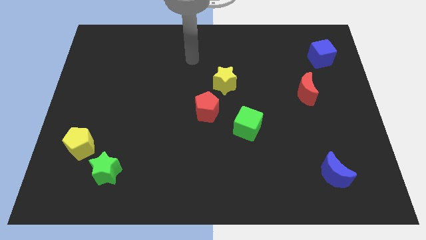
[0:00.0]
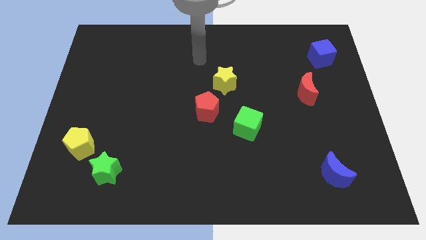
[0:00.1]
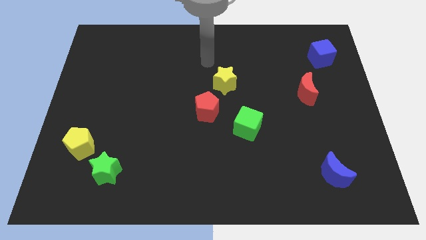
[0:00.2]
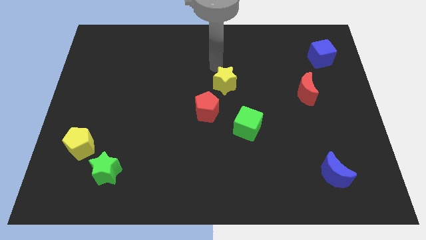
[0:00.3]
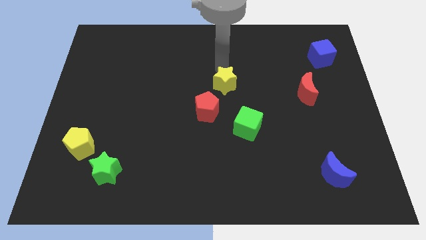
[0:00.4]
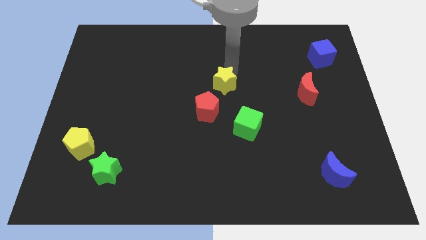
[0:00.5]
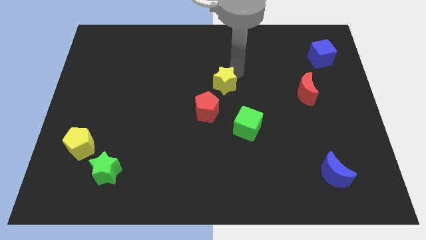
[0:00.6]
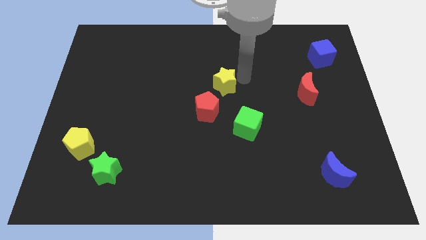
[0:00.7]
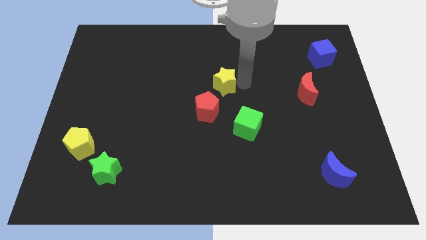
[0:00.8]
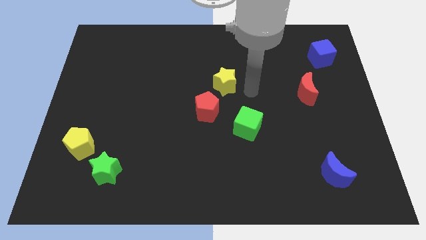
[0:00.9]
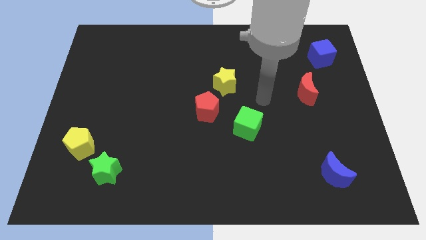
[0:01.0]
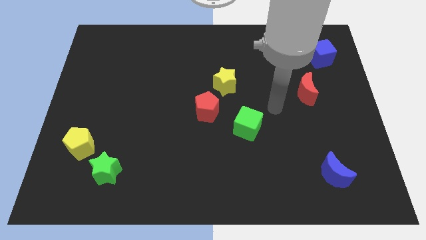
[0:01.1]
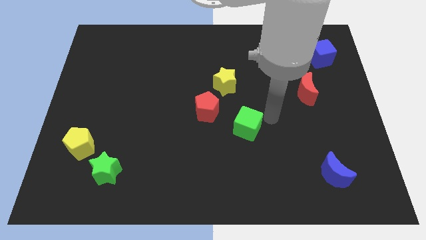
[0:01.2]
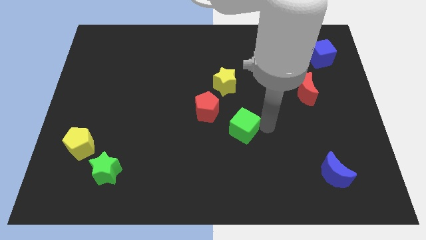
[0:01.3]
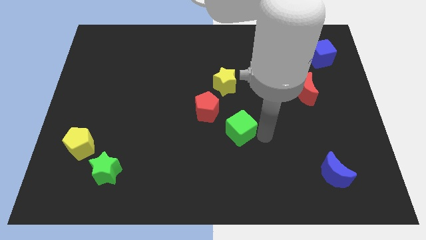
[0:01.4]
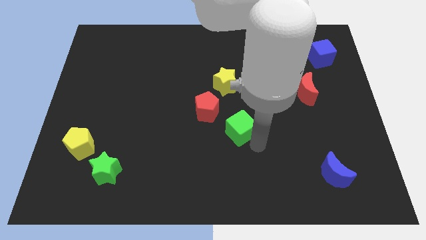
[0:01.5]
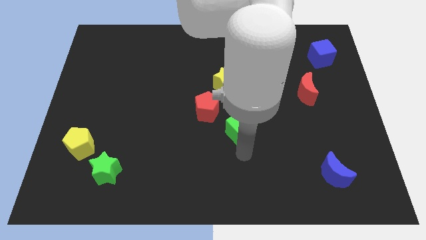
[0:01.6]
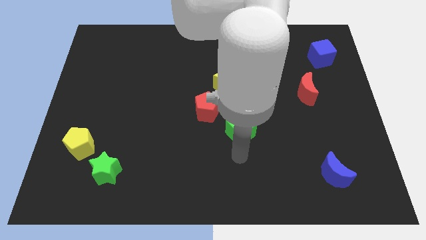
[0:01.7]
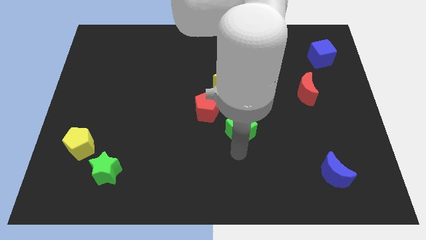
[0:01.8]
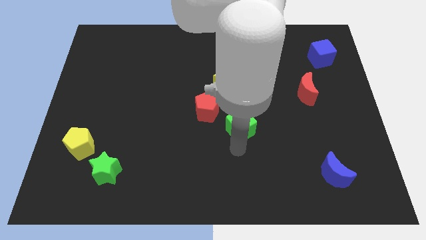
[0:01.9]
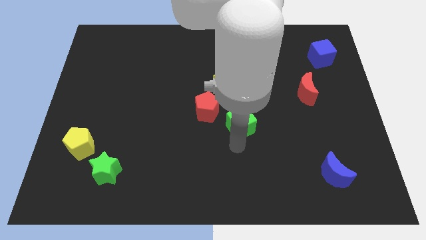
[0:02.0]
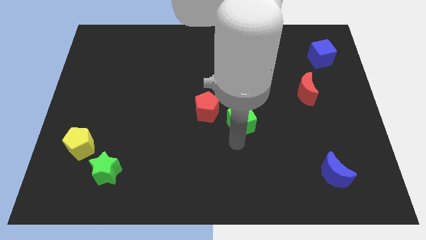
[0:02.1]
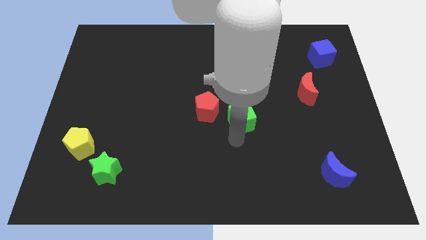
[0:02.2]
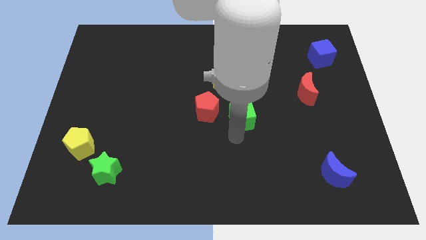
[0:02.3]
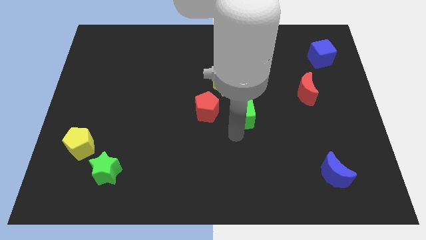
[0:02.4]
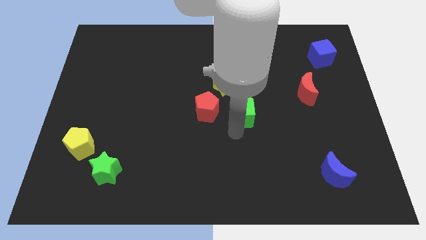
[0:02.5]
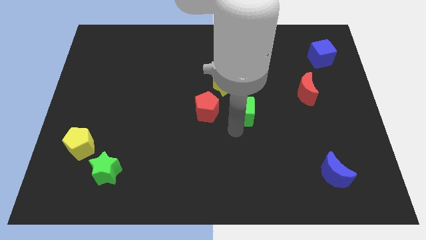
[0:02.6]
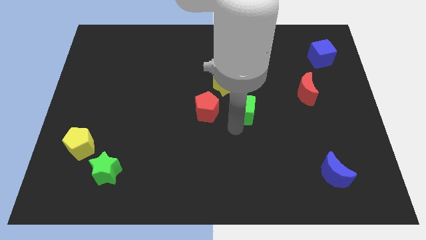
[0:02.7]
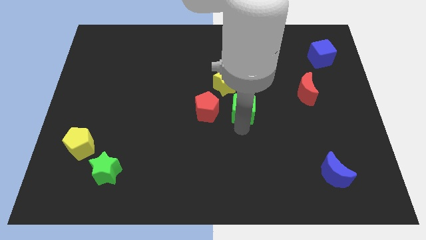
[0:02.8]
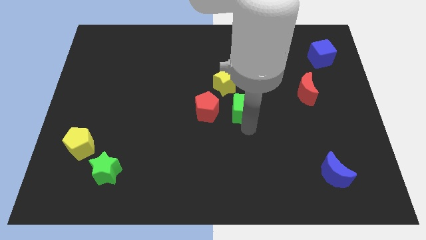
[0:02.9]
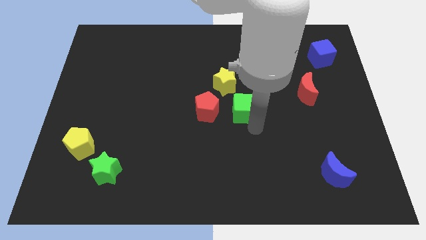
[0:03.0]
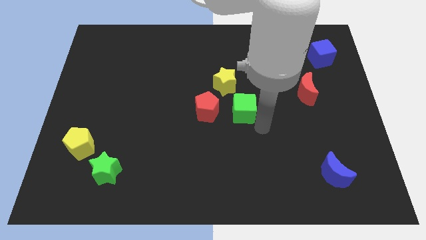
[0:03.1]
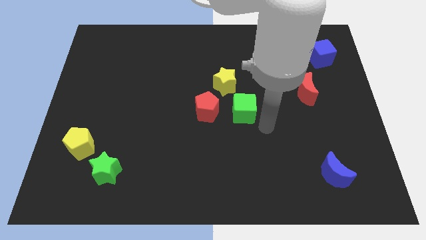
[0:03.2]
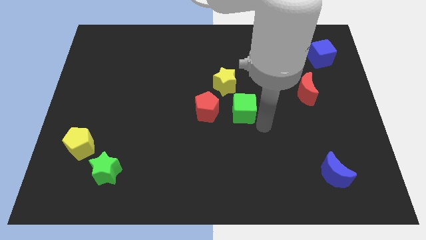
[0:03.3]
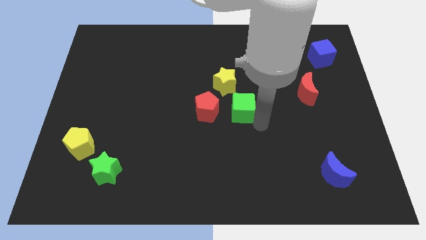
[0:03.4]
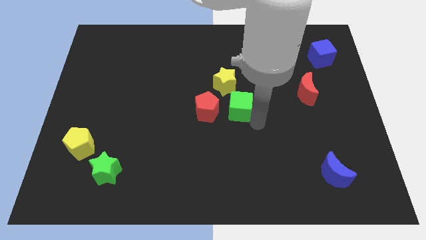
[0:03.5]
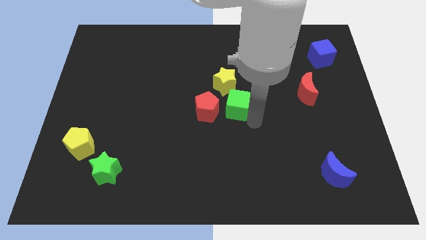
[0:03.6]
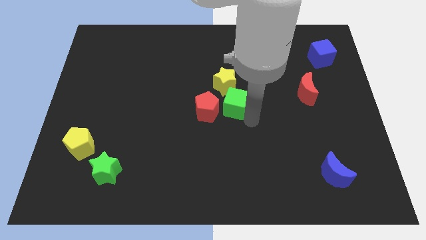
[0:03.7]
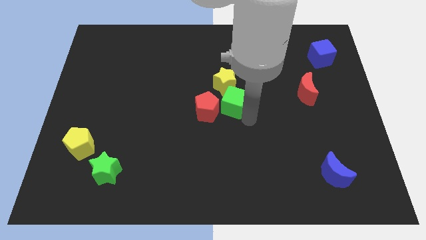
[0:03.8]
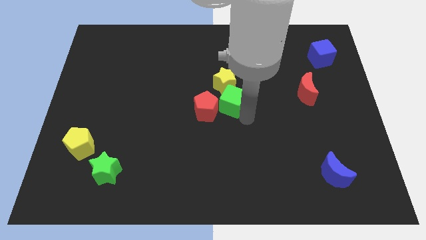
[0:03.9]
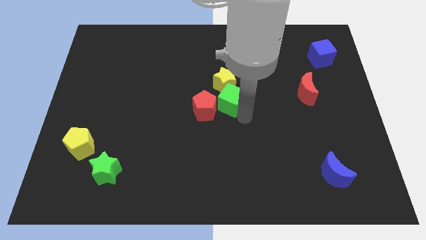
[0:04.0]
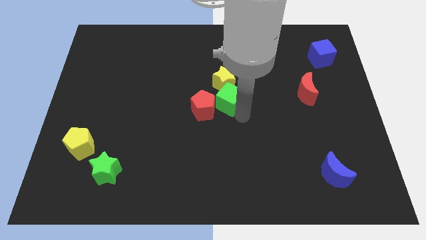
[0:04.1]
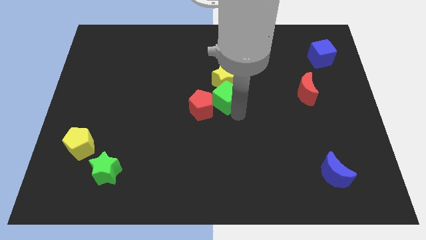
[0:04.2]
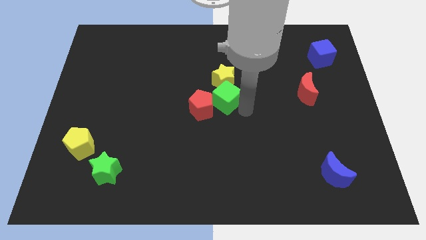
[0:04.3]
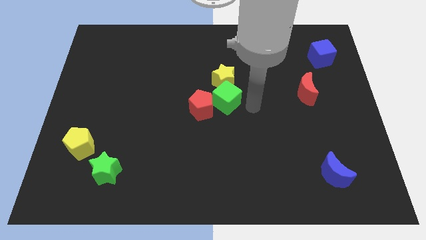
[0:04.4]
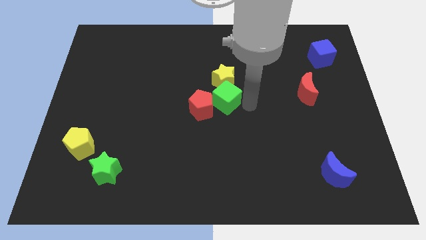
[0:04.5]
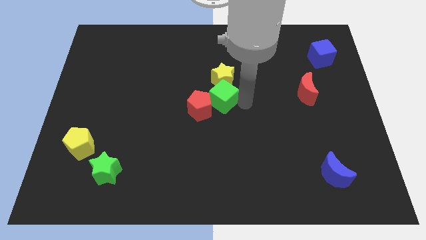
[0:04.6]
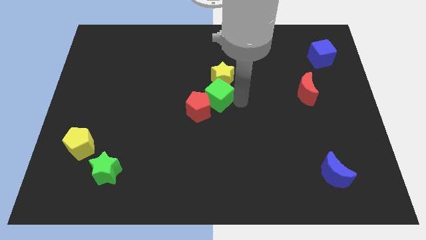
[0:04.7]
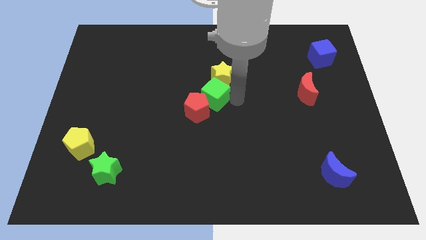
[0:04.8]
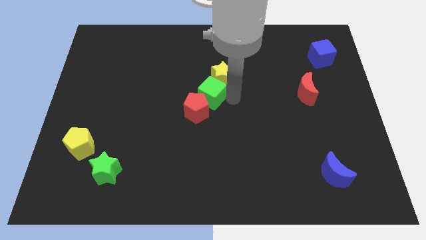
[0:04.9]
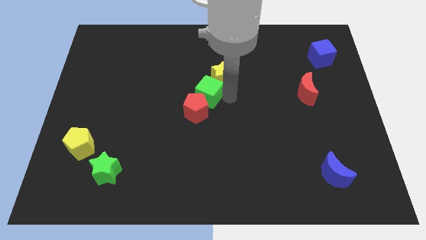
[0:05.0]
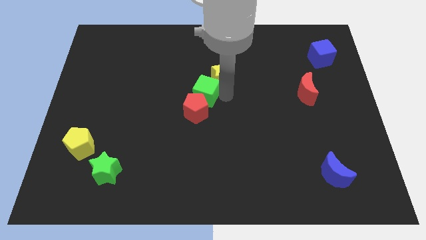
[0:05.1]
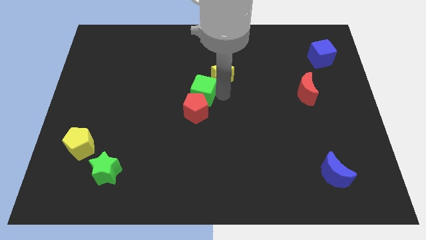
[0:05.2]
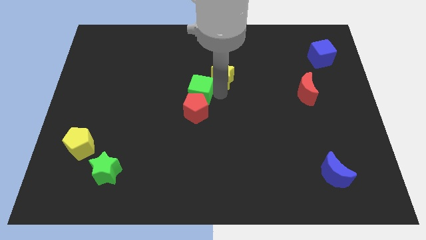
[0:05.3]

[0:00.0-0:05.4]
move the green cube to the top left side of the red pentagon

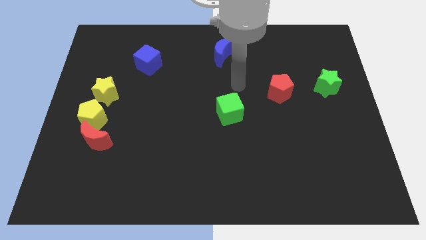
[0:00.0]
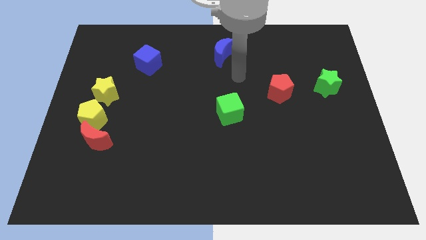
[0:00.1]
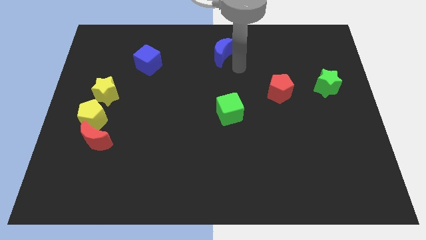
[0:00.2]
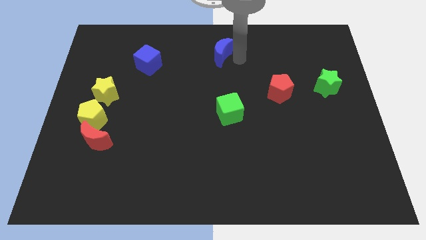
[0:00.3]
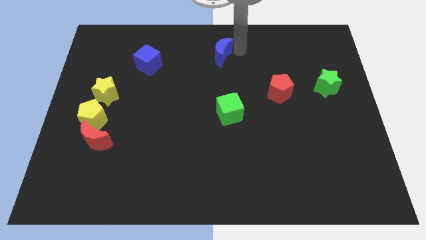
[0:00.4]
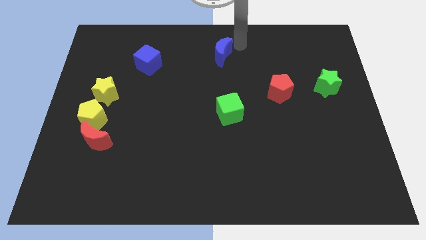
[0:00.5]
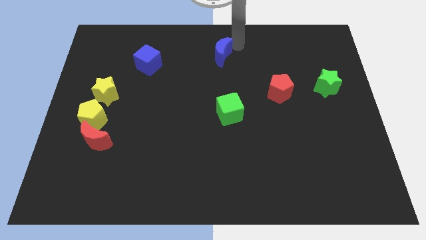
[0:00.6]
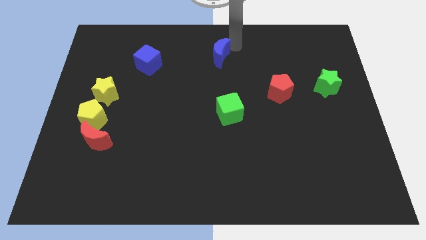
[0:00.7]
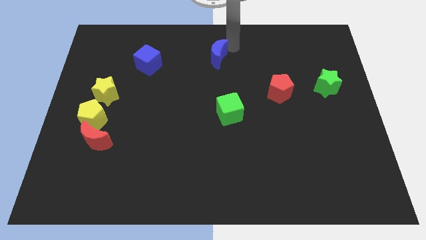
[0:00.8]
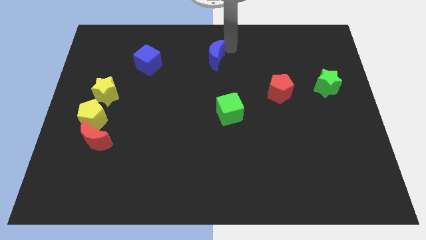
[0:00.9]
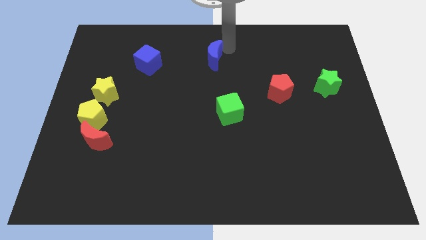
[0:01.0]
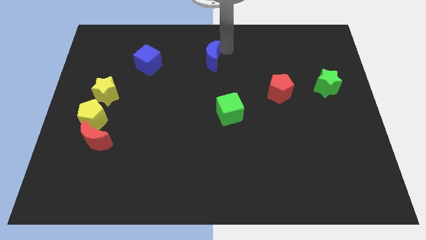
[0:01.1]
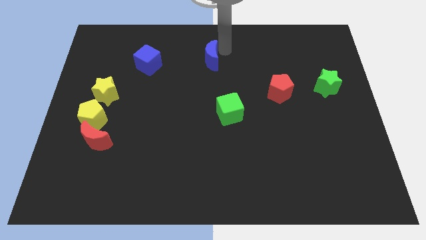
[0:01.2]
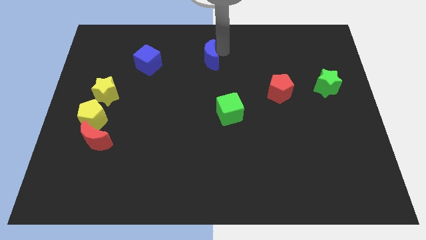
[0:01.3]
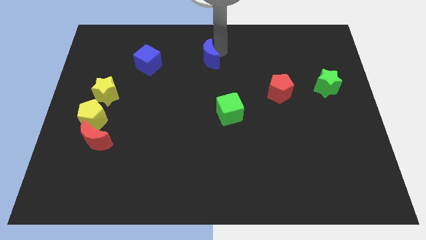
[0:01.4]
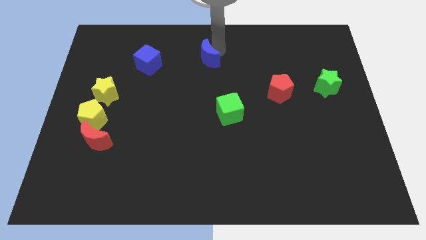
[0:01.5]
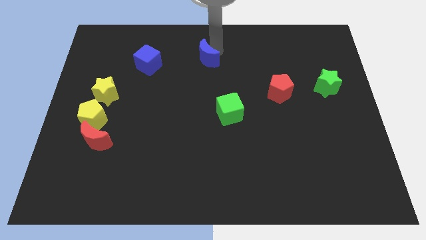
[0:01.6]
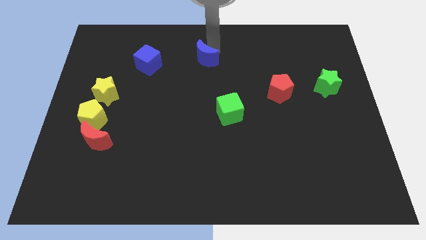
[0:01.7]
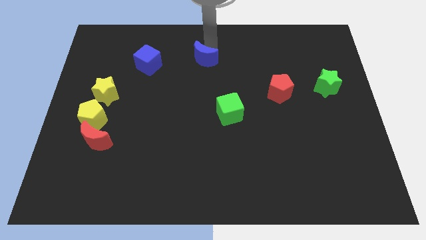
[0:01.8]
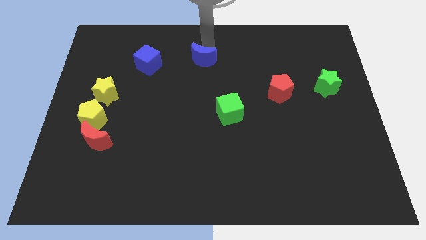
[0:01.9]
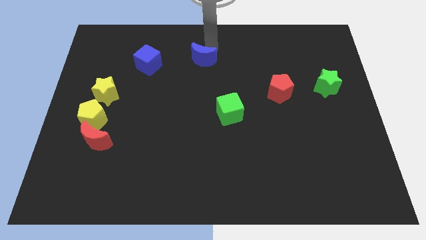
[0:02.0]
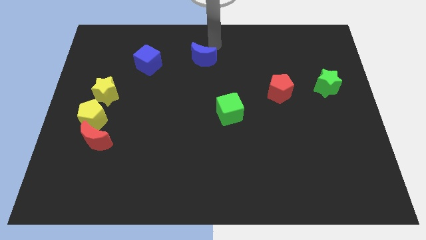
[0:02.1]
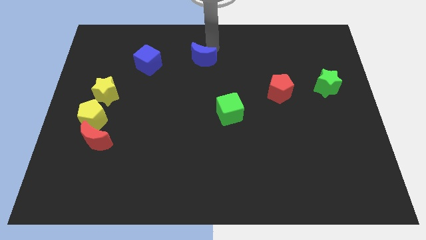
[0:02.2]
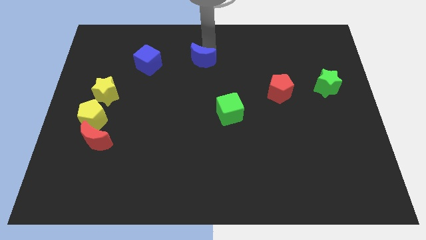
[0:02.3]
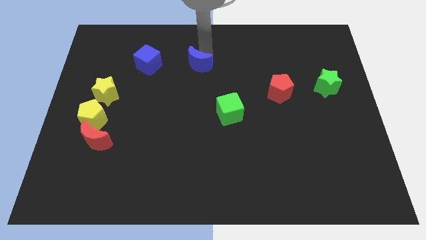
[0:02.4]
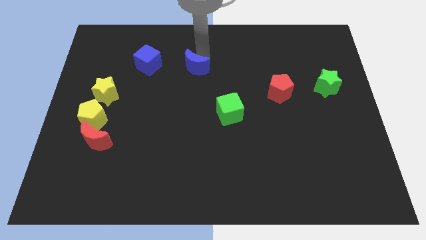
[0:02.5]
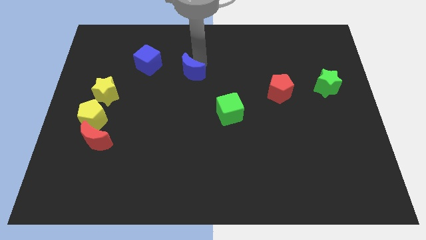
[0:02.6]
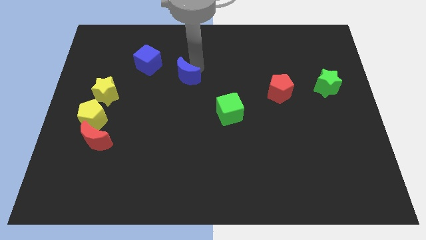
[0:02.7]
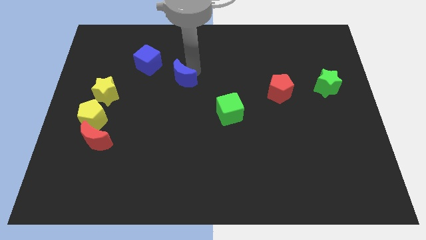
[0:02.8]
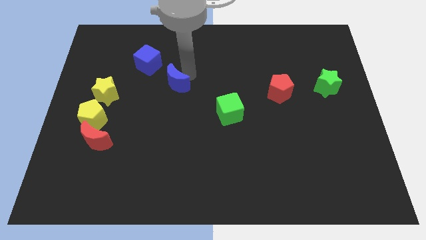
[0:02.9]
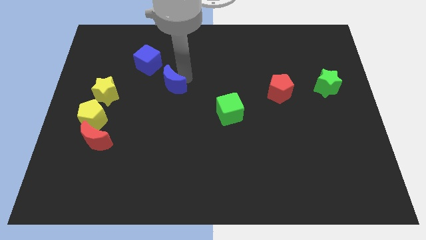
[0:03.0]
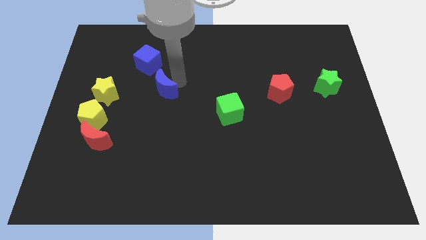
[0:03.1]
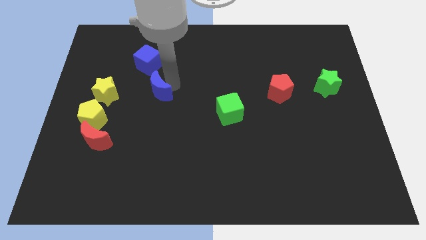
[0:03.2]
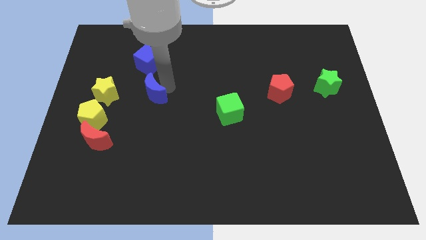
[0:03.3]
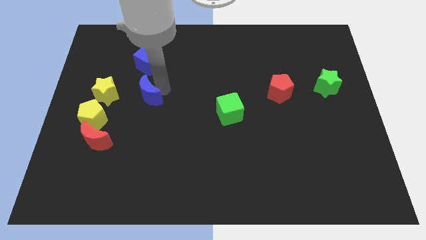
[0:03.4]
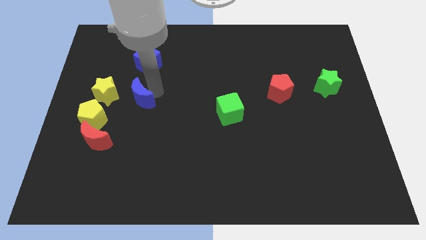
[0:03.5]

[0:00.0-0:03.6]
move the blue moon to the bottom right side of the yellow star
